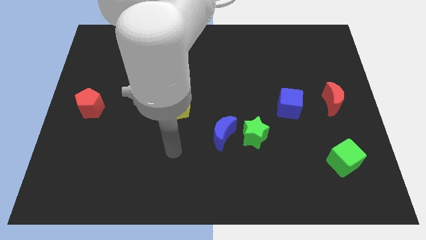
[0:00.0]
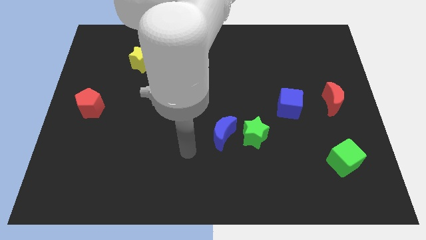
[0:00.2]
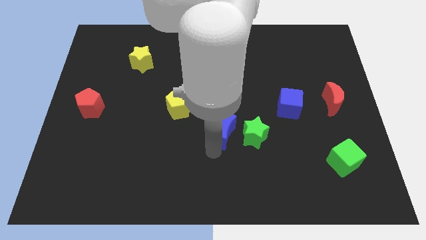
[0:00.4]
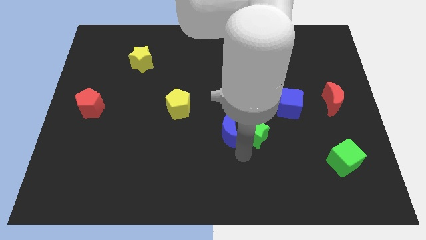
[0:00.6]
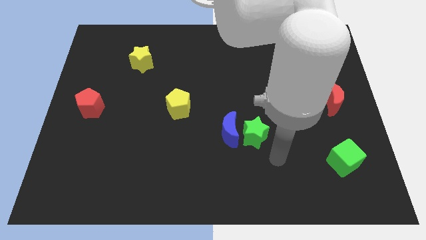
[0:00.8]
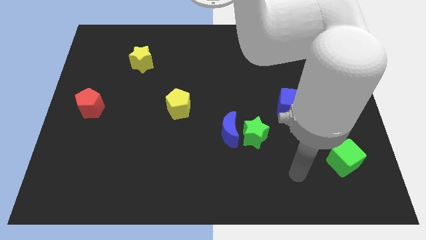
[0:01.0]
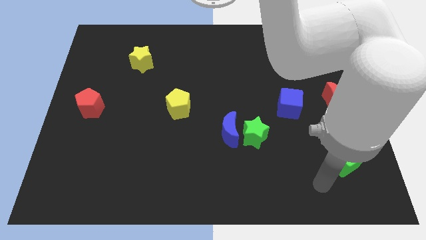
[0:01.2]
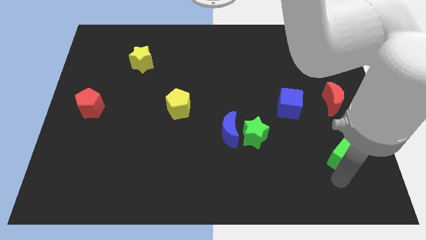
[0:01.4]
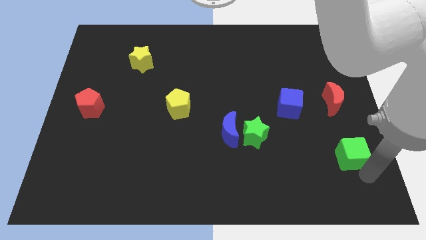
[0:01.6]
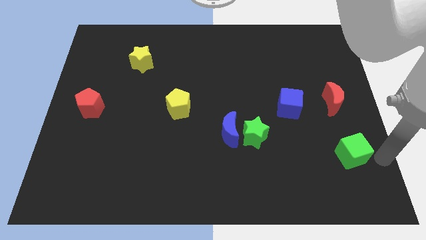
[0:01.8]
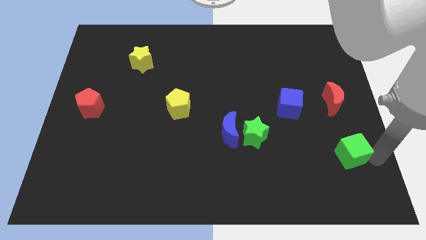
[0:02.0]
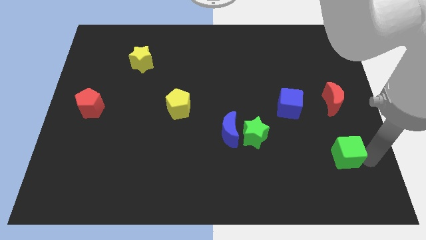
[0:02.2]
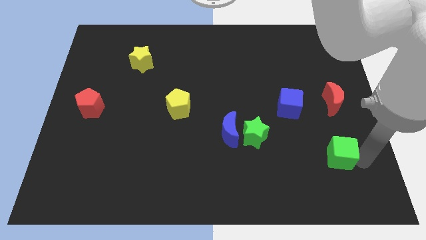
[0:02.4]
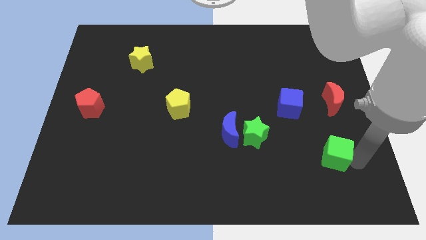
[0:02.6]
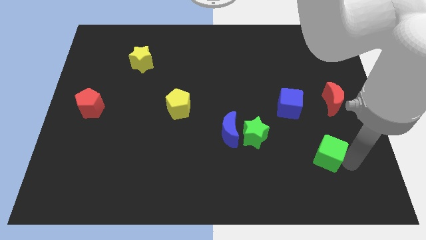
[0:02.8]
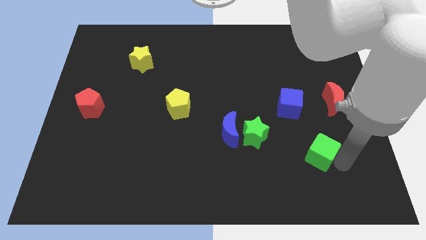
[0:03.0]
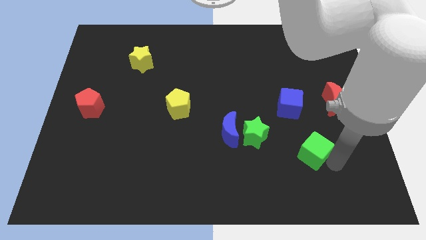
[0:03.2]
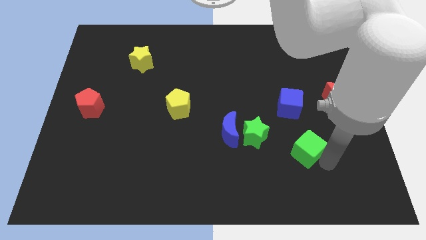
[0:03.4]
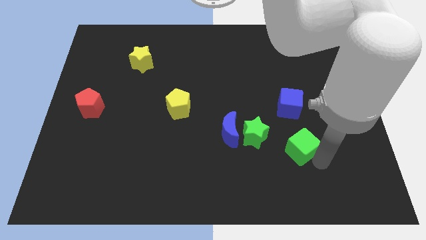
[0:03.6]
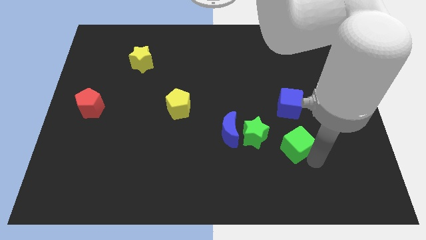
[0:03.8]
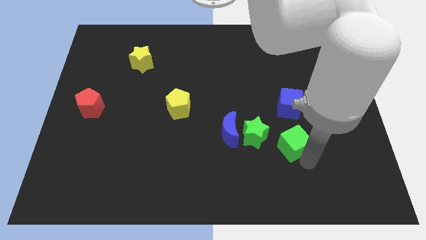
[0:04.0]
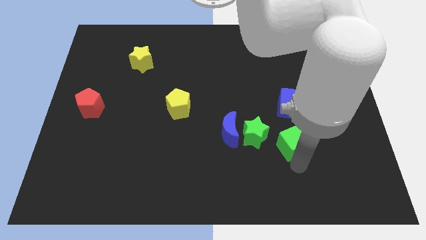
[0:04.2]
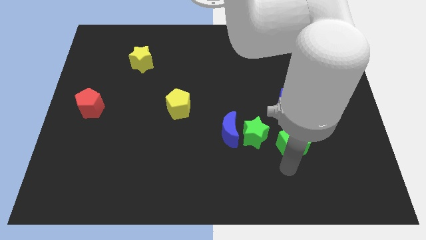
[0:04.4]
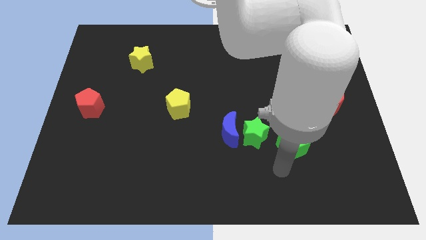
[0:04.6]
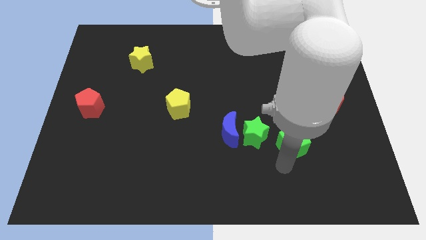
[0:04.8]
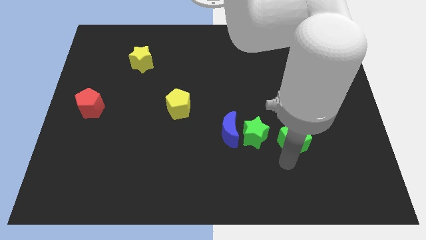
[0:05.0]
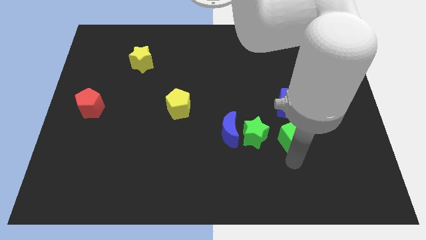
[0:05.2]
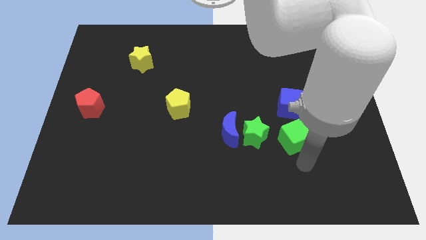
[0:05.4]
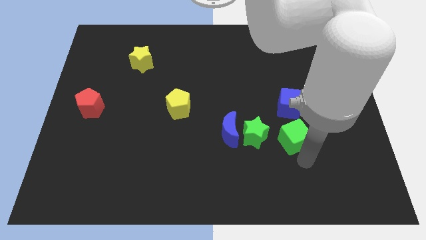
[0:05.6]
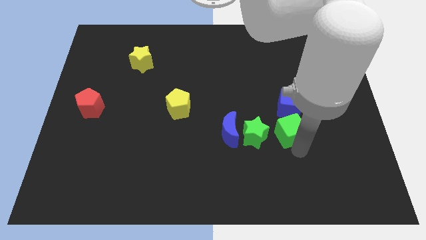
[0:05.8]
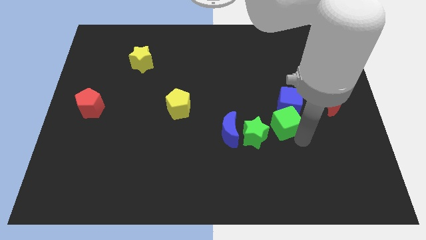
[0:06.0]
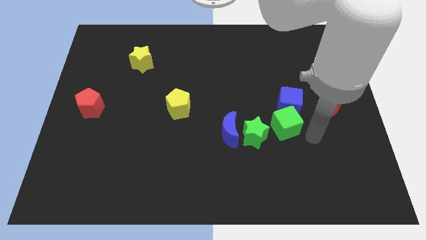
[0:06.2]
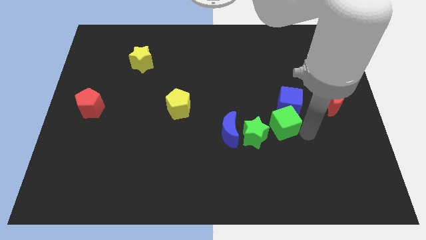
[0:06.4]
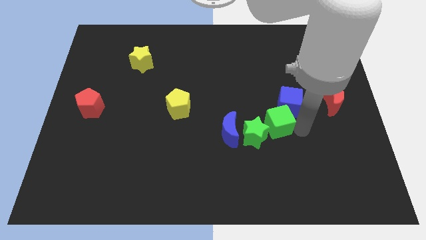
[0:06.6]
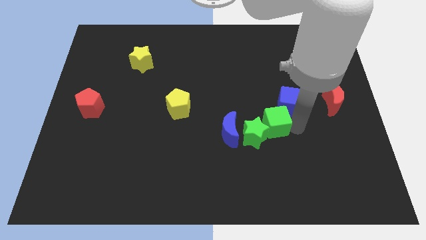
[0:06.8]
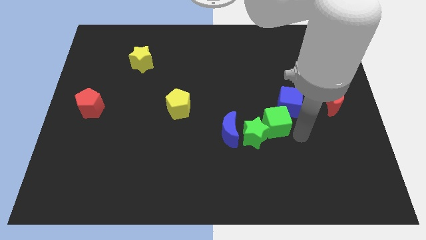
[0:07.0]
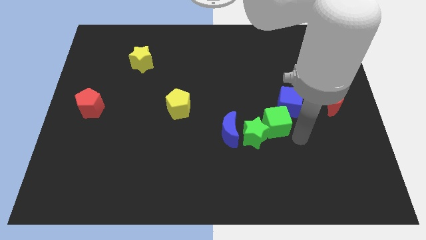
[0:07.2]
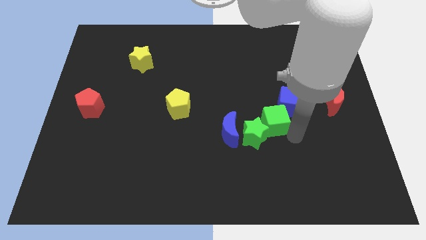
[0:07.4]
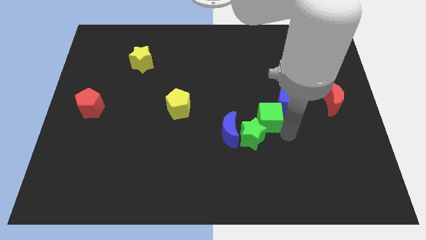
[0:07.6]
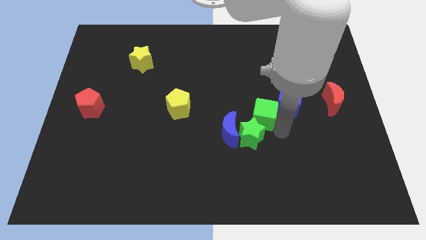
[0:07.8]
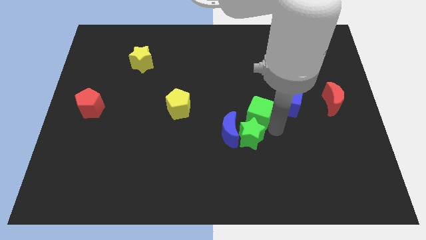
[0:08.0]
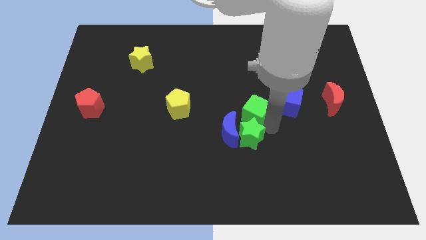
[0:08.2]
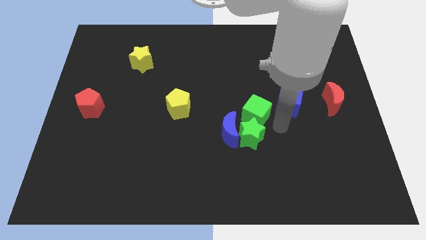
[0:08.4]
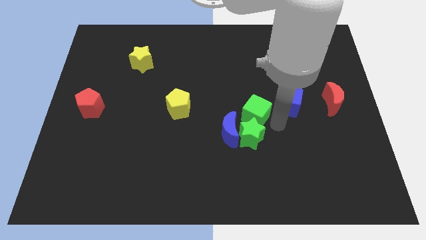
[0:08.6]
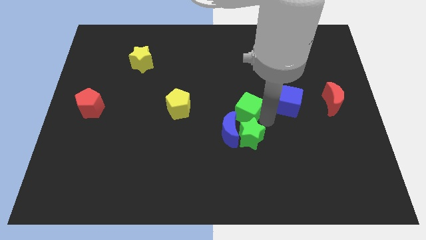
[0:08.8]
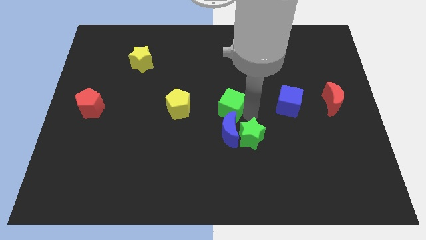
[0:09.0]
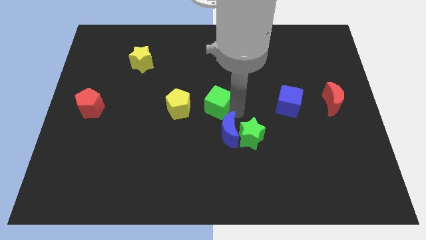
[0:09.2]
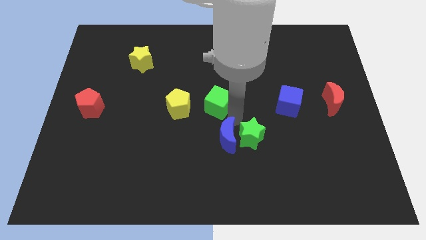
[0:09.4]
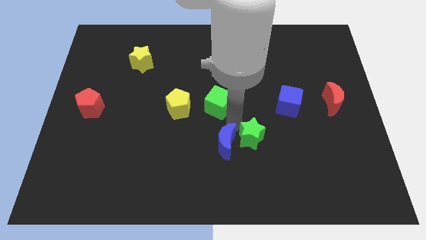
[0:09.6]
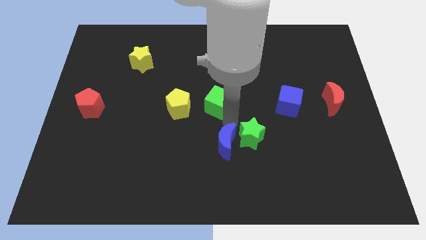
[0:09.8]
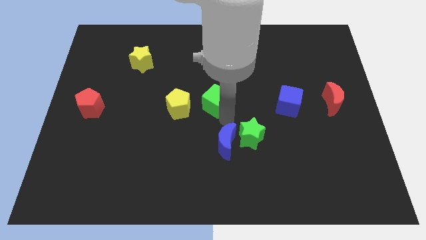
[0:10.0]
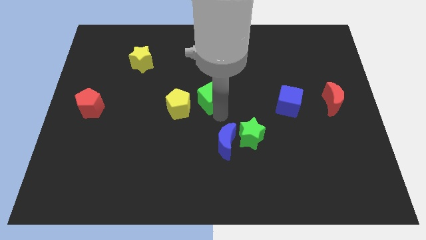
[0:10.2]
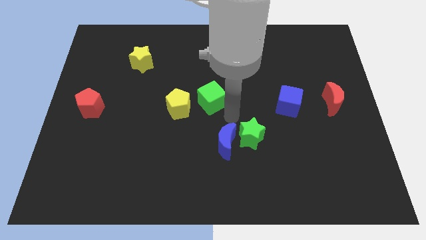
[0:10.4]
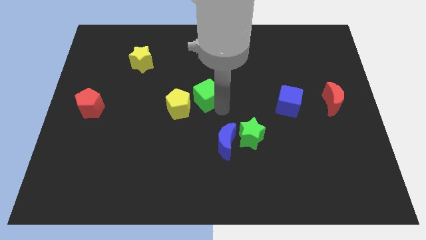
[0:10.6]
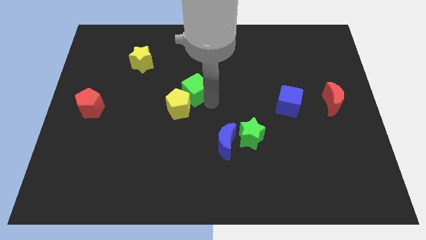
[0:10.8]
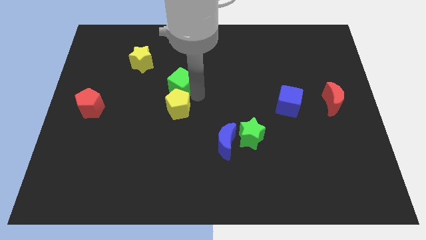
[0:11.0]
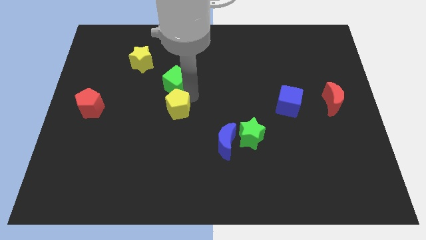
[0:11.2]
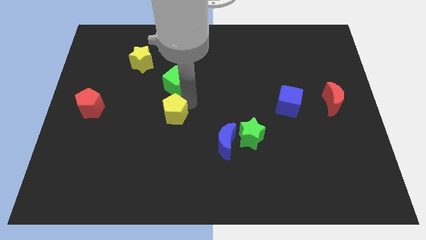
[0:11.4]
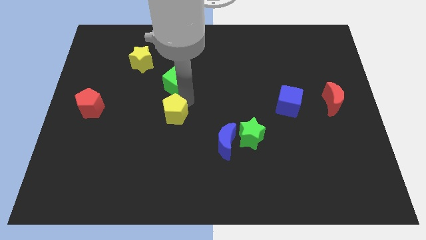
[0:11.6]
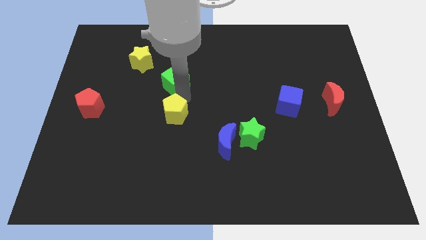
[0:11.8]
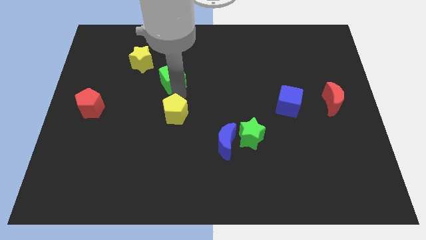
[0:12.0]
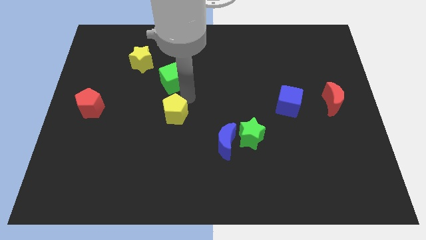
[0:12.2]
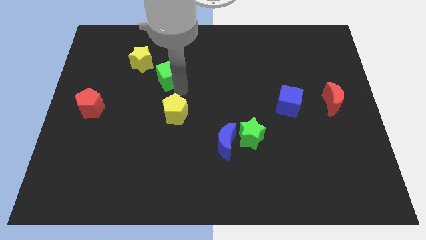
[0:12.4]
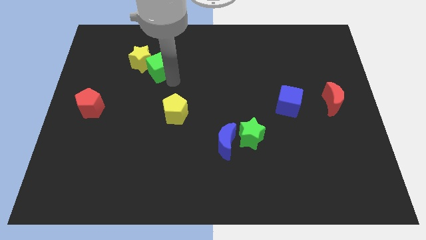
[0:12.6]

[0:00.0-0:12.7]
put the green cube to the yellow star

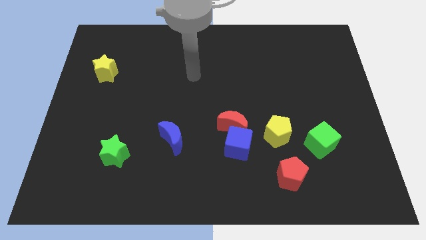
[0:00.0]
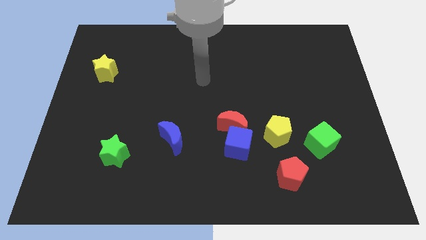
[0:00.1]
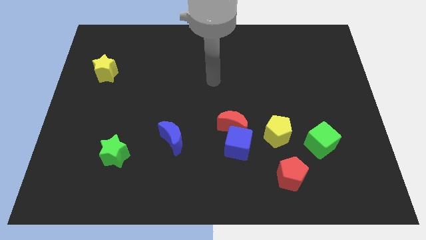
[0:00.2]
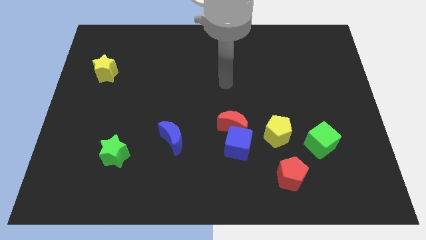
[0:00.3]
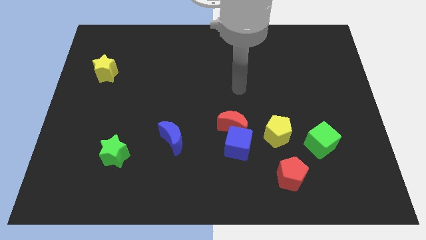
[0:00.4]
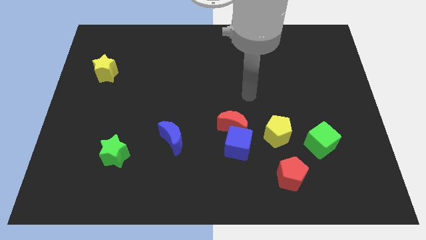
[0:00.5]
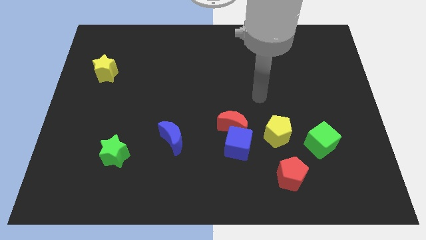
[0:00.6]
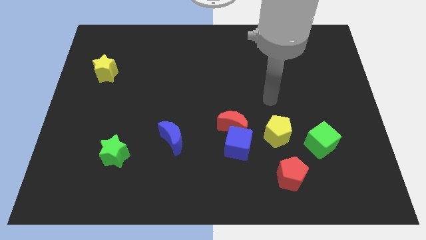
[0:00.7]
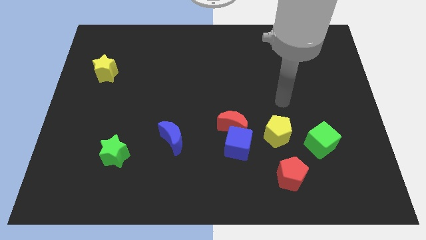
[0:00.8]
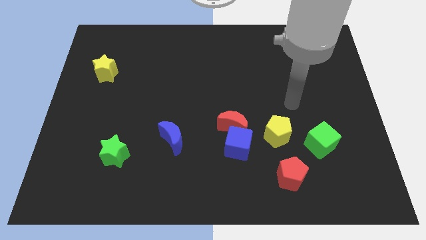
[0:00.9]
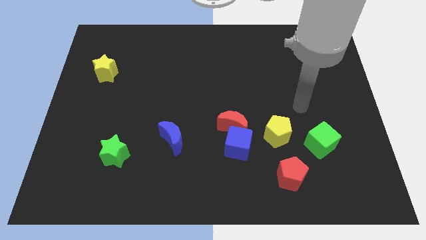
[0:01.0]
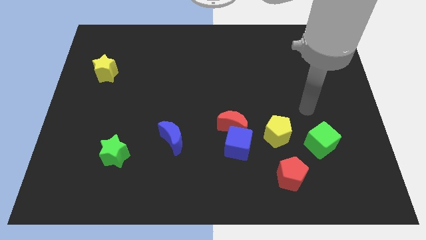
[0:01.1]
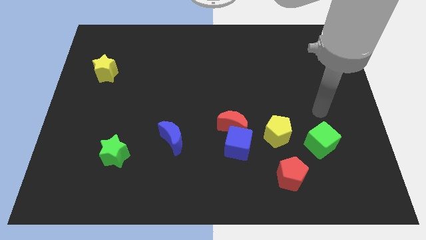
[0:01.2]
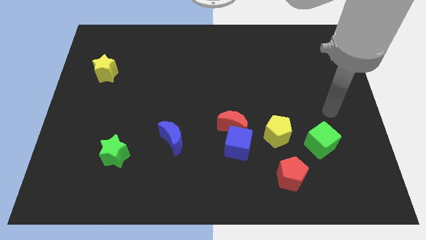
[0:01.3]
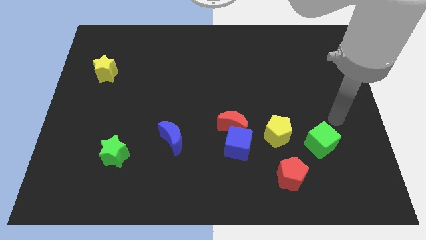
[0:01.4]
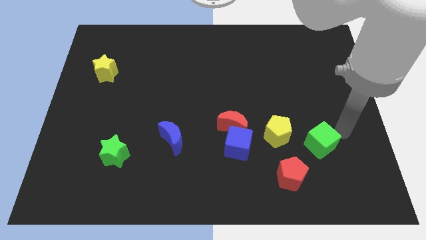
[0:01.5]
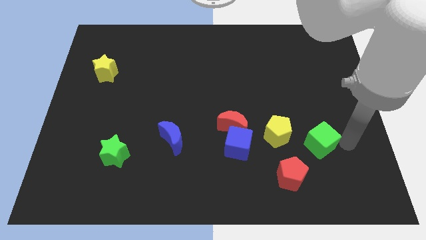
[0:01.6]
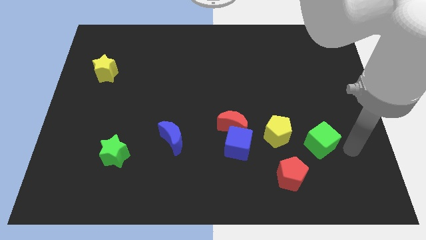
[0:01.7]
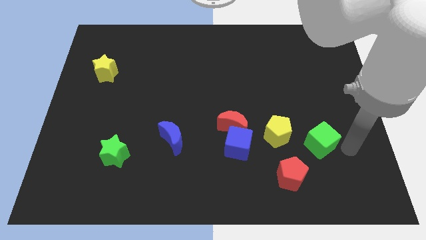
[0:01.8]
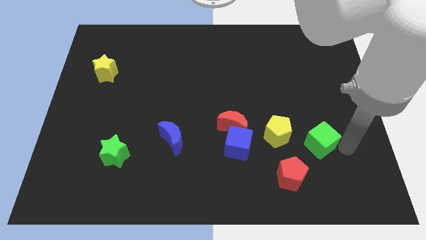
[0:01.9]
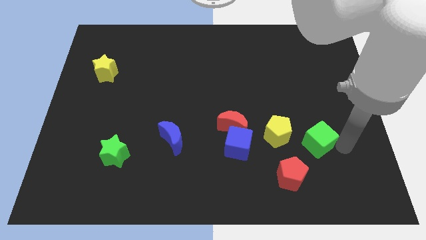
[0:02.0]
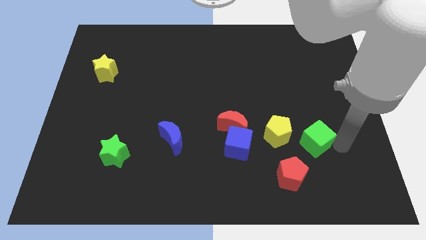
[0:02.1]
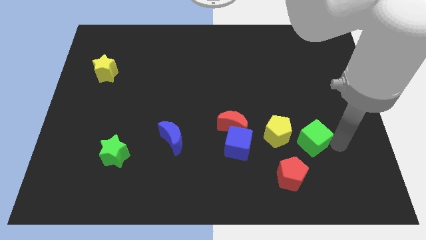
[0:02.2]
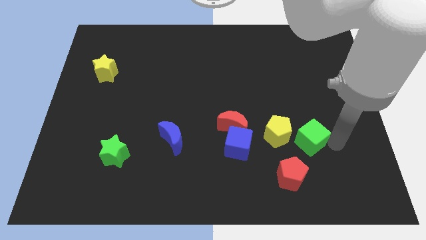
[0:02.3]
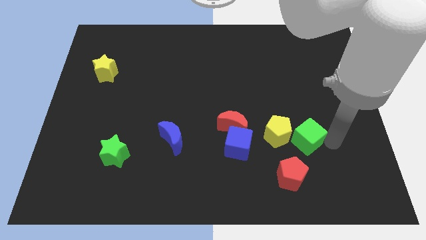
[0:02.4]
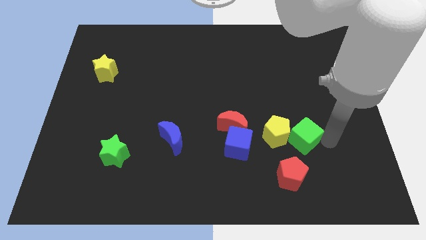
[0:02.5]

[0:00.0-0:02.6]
put the green cube to the yellow pentagon
